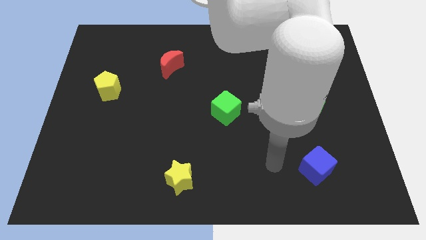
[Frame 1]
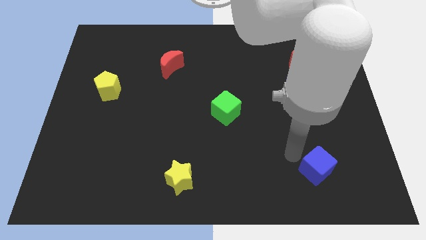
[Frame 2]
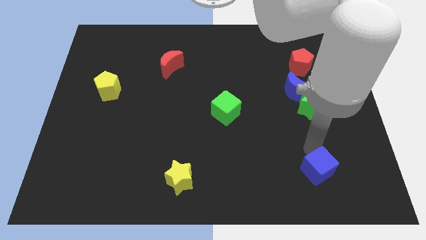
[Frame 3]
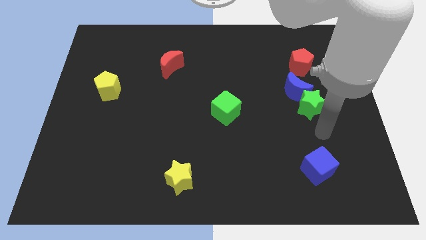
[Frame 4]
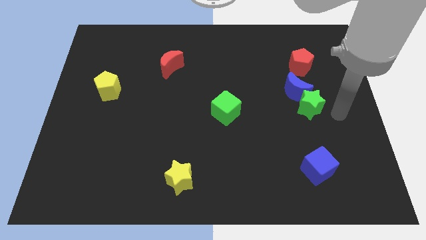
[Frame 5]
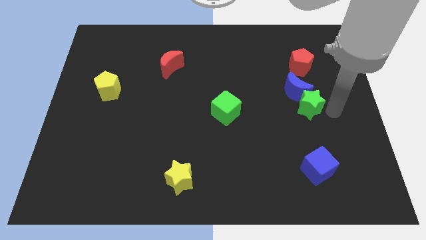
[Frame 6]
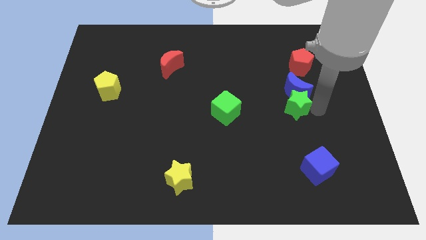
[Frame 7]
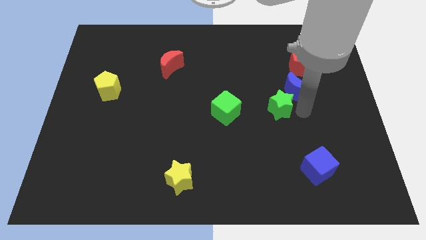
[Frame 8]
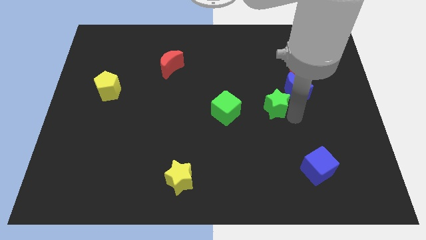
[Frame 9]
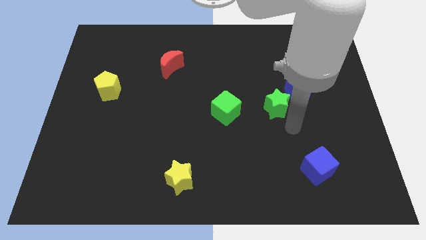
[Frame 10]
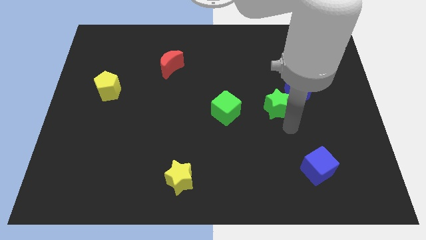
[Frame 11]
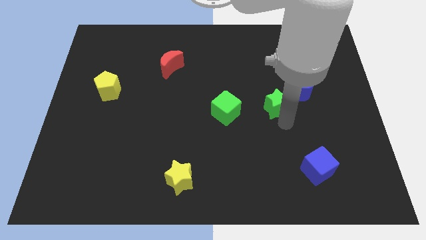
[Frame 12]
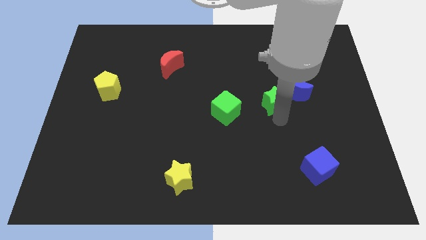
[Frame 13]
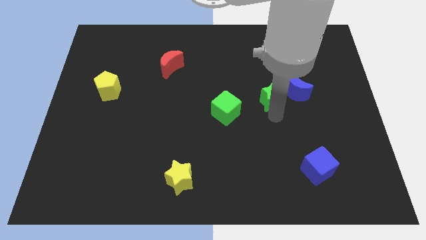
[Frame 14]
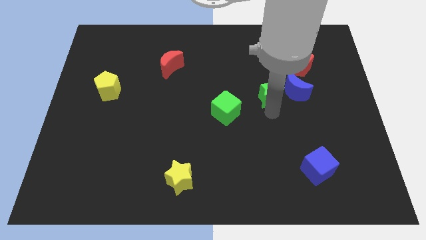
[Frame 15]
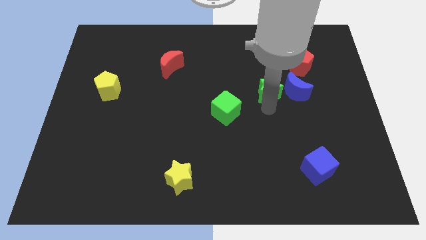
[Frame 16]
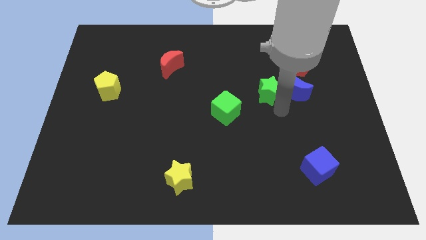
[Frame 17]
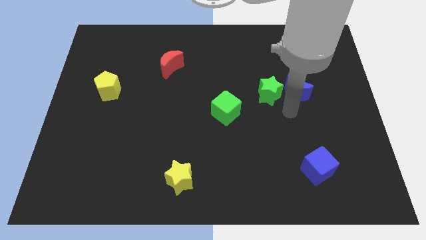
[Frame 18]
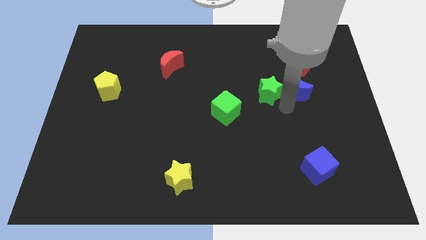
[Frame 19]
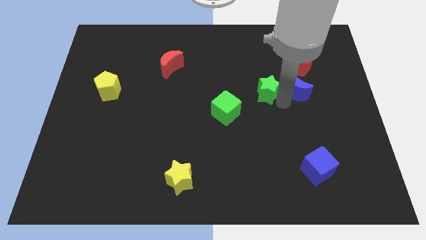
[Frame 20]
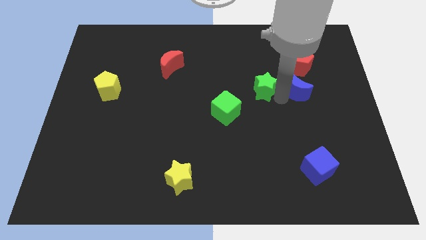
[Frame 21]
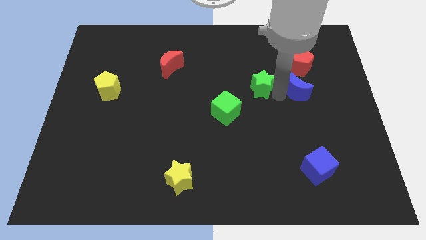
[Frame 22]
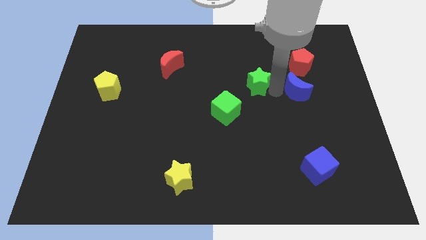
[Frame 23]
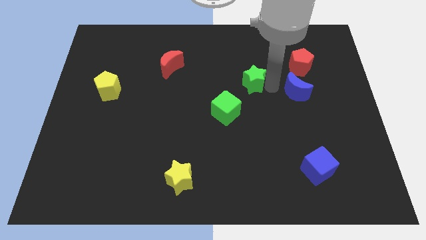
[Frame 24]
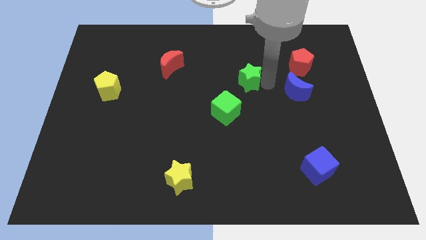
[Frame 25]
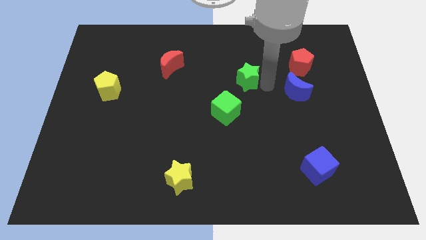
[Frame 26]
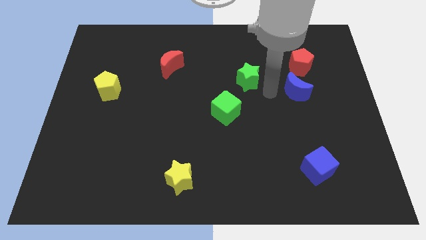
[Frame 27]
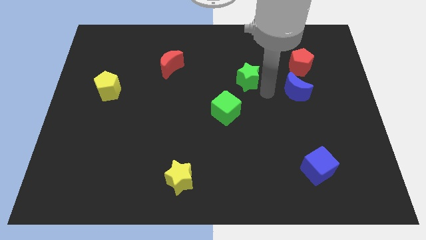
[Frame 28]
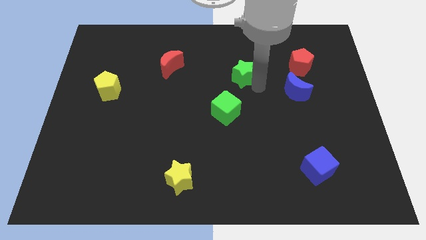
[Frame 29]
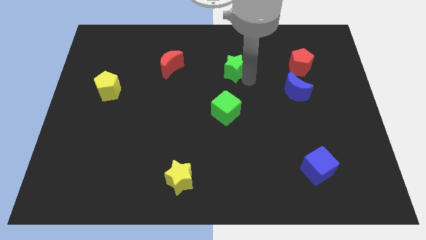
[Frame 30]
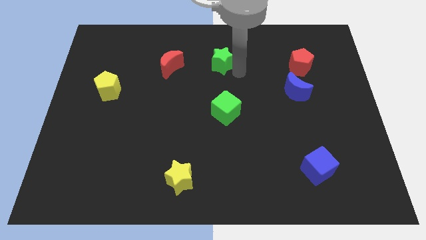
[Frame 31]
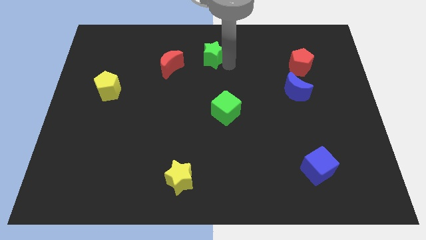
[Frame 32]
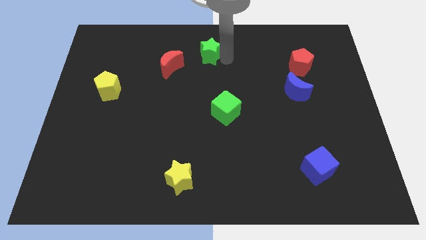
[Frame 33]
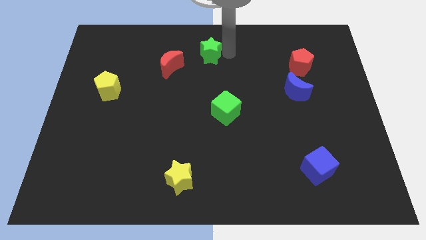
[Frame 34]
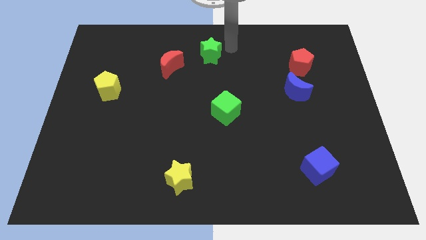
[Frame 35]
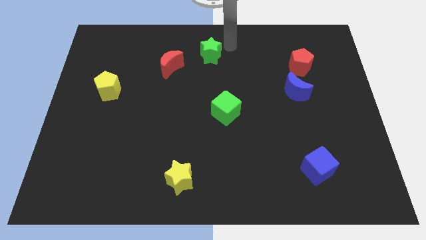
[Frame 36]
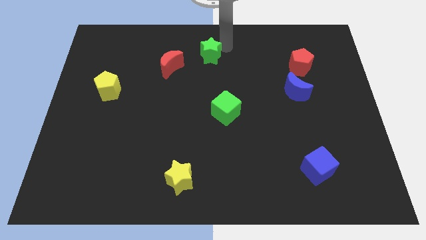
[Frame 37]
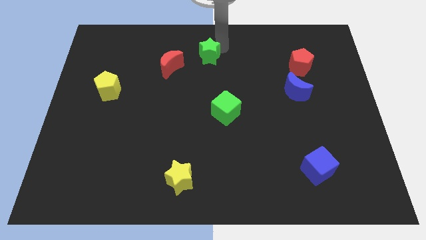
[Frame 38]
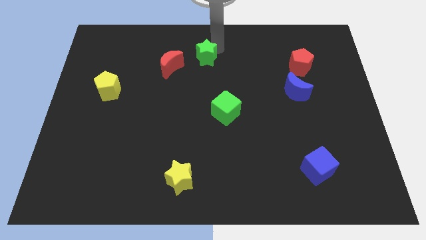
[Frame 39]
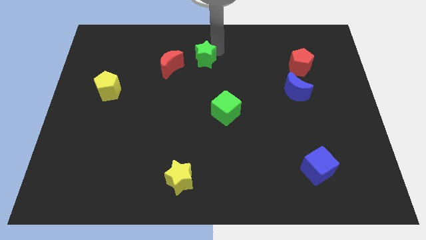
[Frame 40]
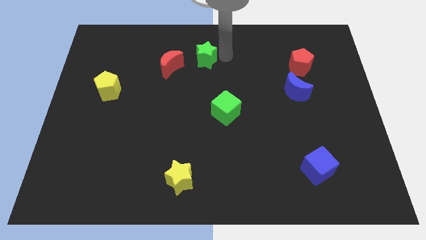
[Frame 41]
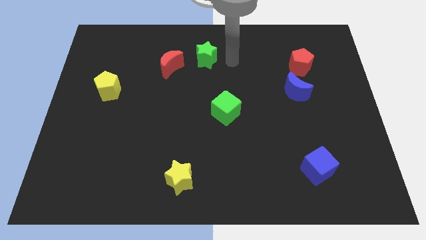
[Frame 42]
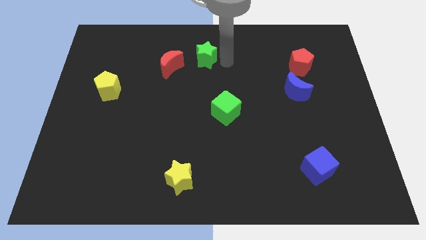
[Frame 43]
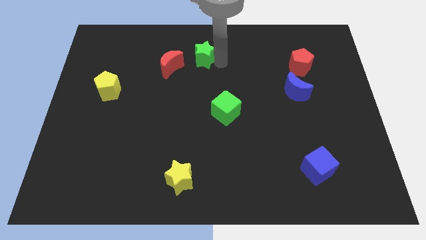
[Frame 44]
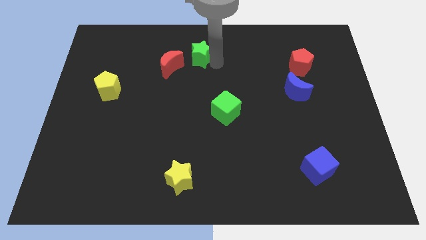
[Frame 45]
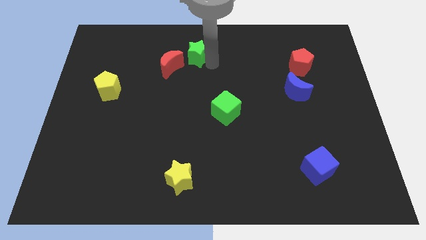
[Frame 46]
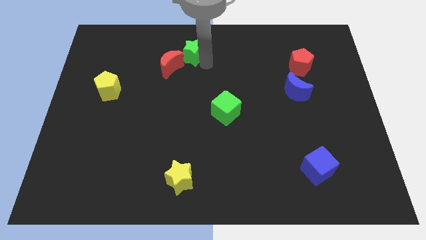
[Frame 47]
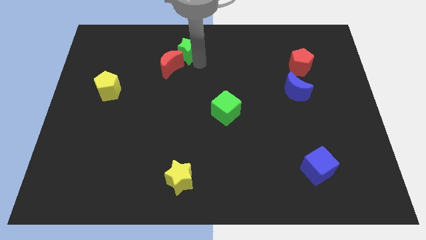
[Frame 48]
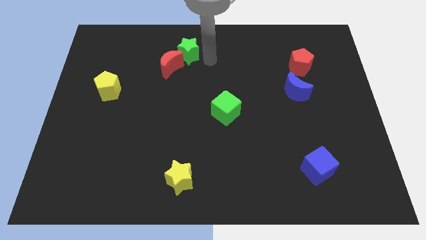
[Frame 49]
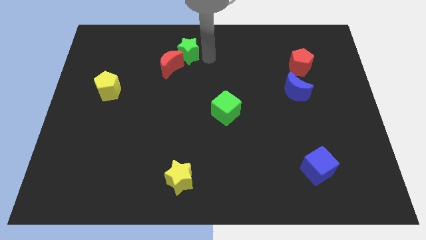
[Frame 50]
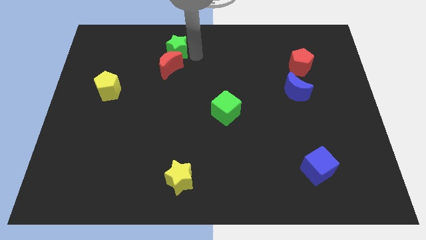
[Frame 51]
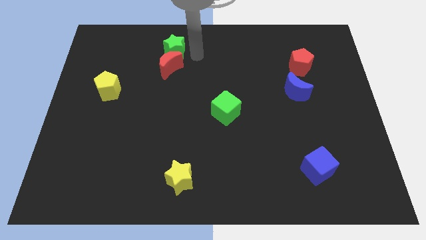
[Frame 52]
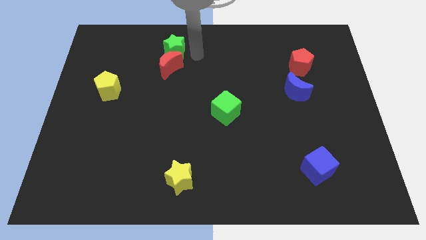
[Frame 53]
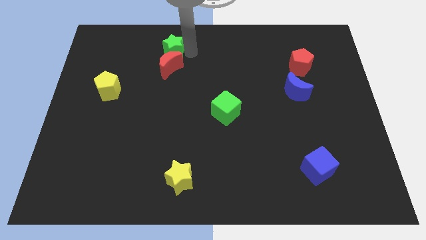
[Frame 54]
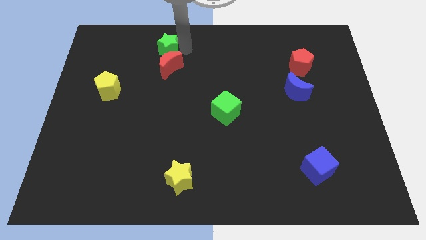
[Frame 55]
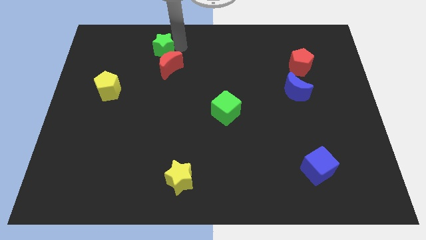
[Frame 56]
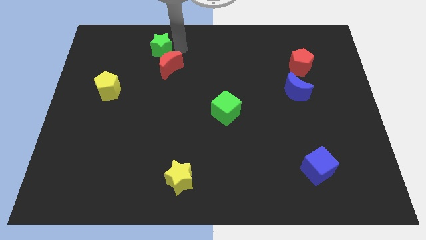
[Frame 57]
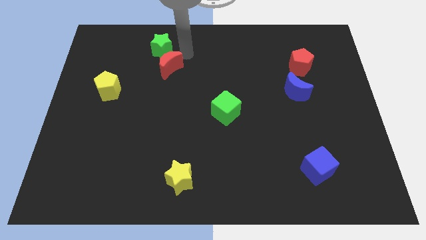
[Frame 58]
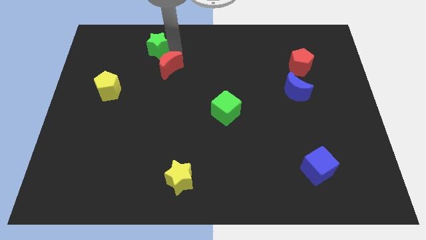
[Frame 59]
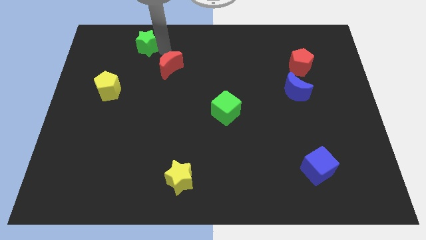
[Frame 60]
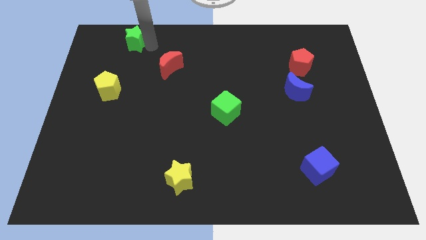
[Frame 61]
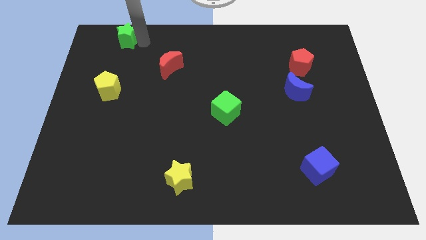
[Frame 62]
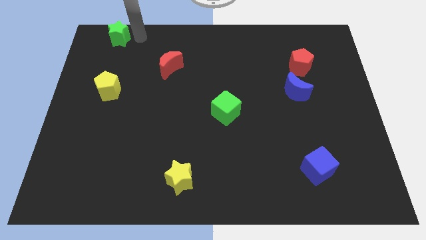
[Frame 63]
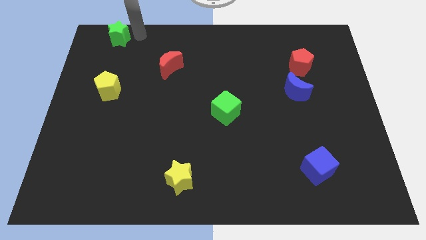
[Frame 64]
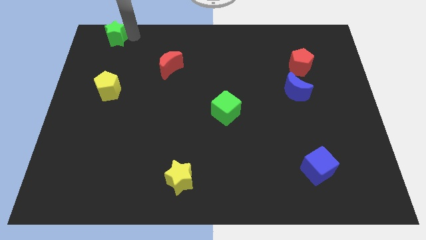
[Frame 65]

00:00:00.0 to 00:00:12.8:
slide the green star to the top left corner
